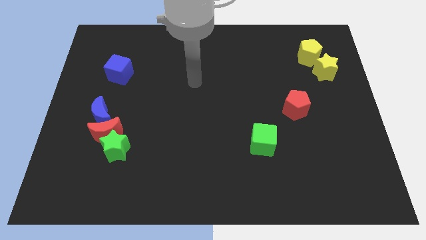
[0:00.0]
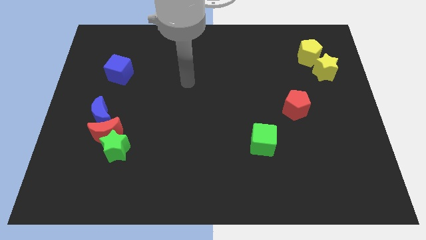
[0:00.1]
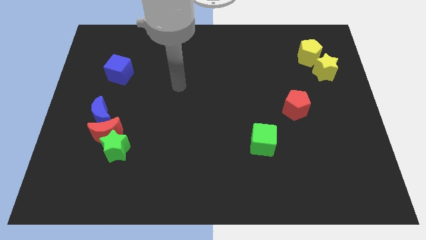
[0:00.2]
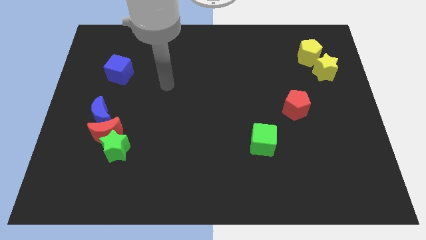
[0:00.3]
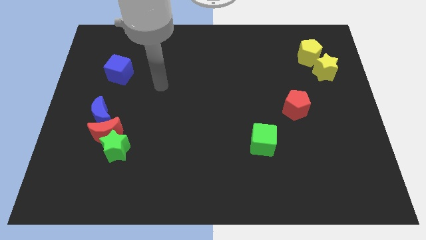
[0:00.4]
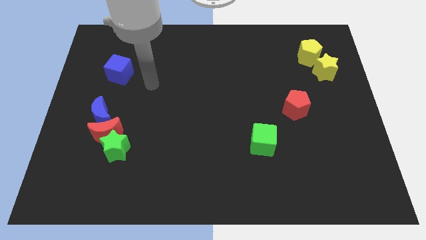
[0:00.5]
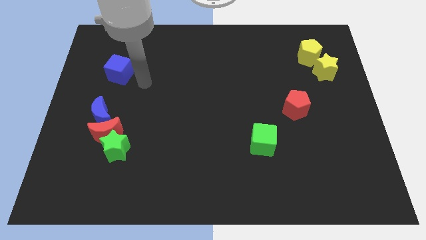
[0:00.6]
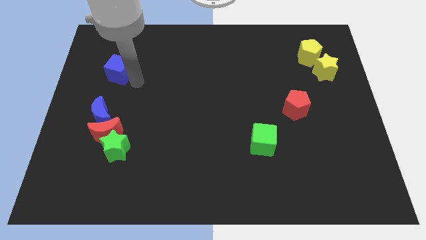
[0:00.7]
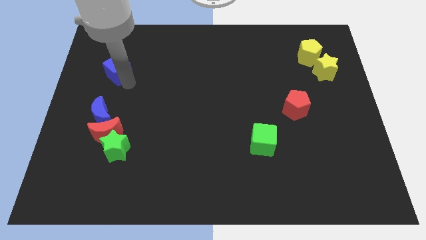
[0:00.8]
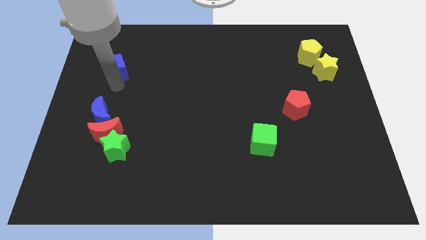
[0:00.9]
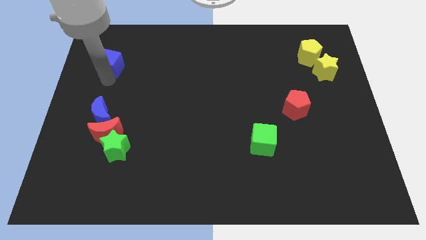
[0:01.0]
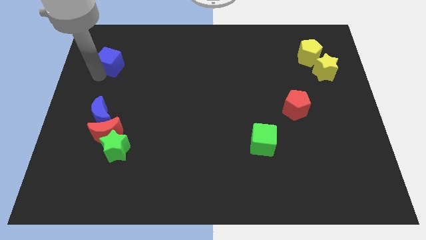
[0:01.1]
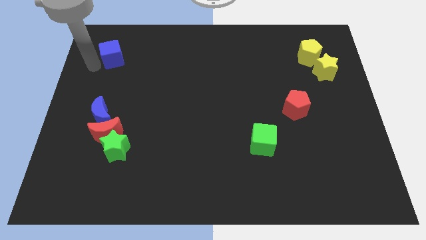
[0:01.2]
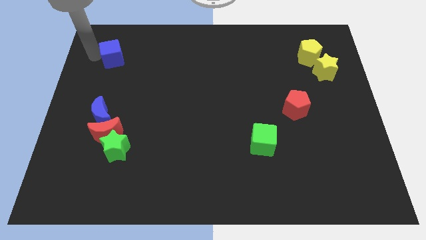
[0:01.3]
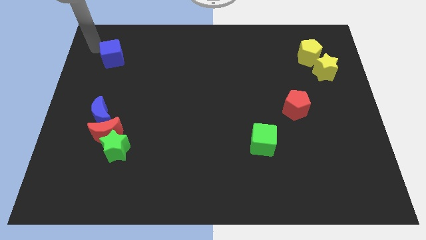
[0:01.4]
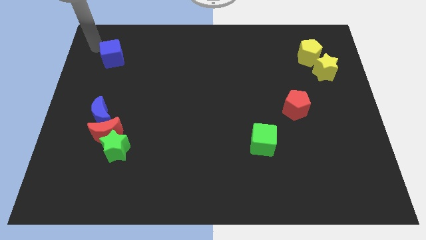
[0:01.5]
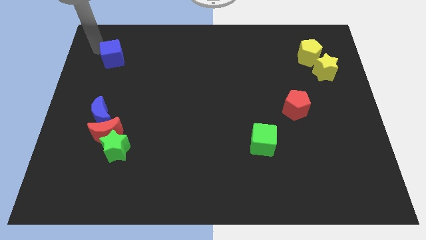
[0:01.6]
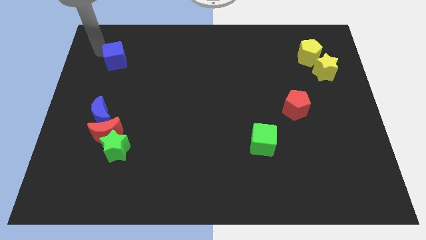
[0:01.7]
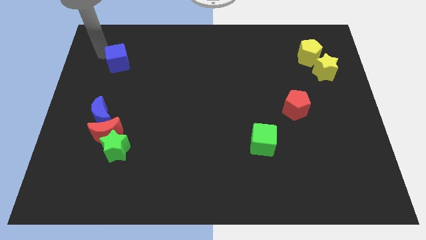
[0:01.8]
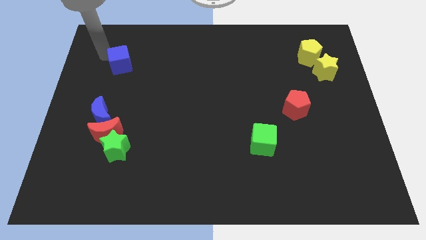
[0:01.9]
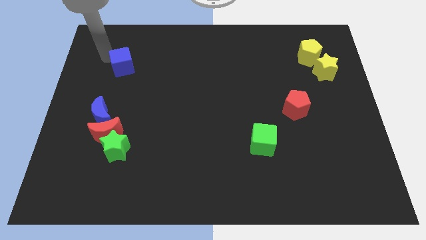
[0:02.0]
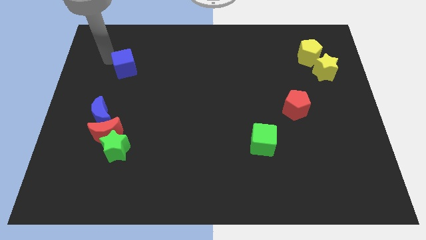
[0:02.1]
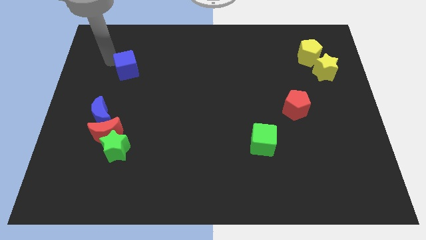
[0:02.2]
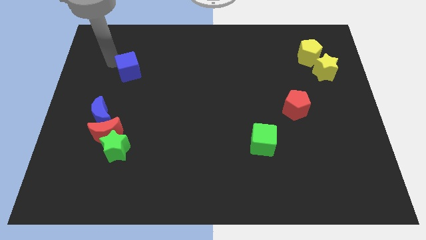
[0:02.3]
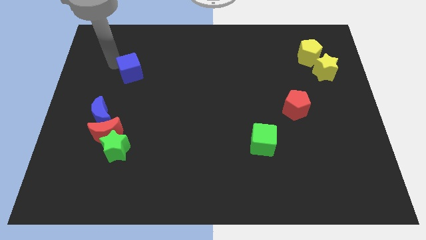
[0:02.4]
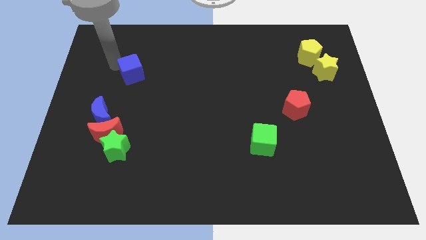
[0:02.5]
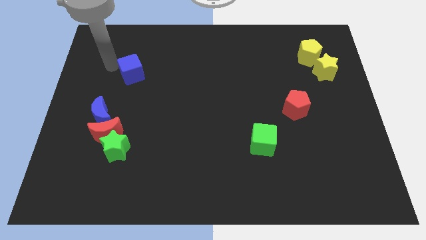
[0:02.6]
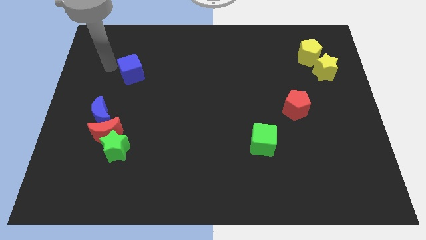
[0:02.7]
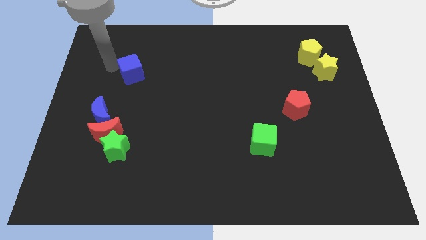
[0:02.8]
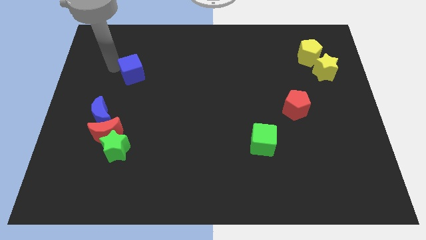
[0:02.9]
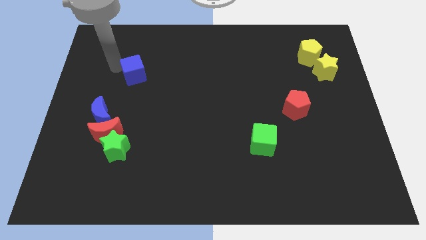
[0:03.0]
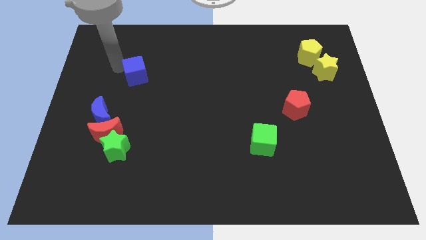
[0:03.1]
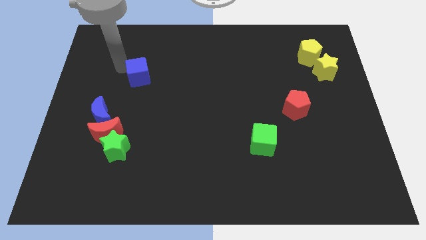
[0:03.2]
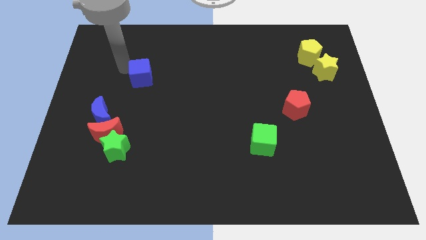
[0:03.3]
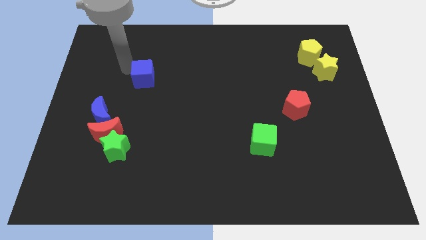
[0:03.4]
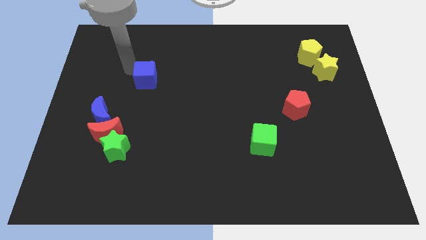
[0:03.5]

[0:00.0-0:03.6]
push the blue cube somewhat right

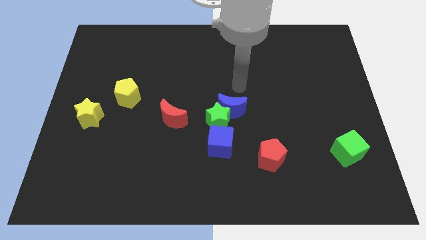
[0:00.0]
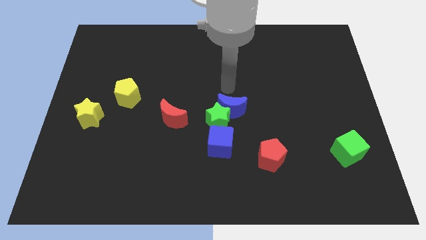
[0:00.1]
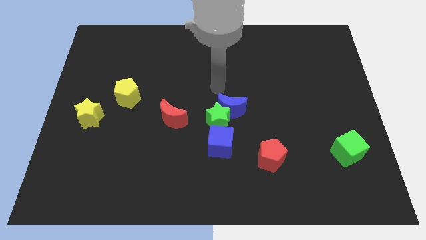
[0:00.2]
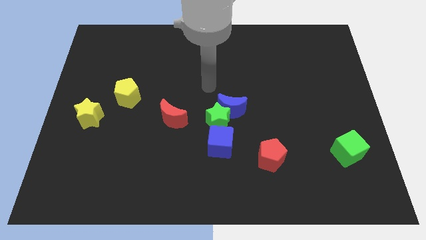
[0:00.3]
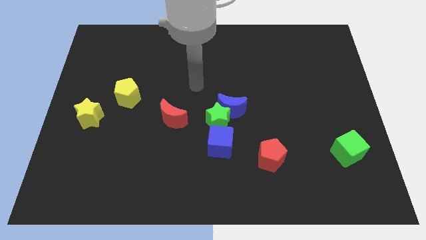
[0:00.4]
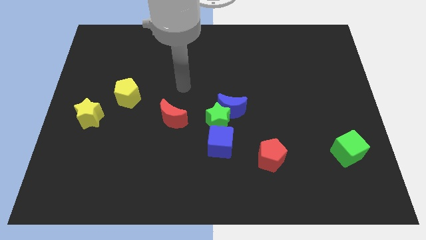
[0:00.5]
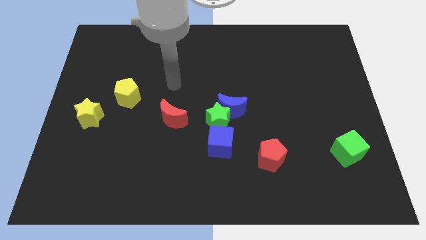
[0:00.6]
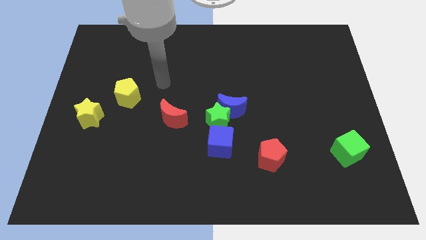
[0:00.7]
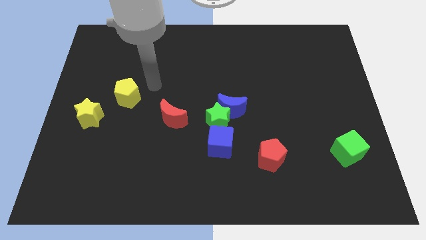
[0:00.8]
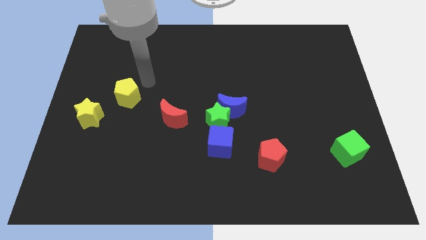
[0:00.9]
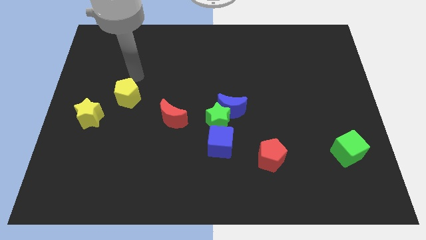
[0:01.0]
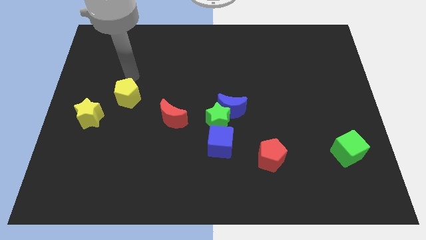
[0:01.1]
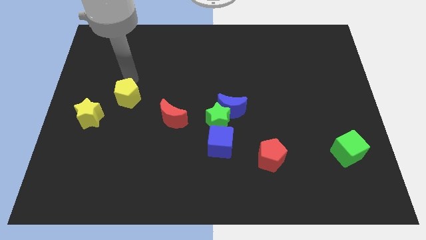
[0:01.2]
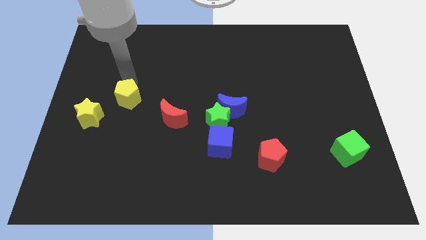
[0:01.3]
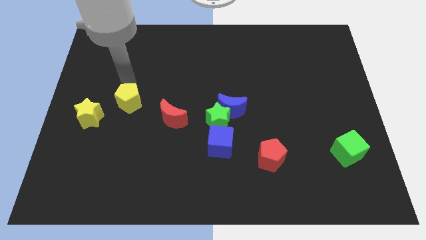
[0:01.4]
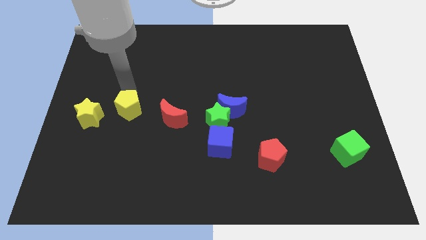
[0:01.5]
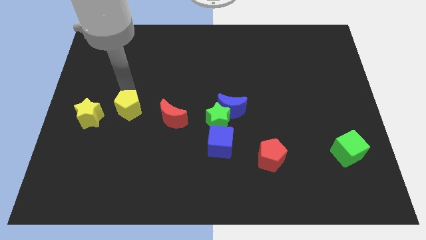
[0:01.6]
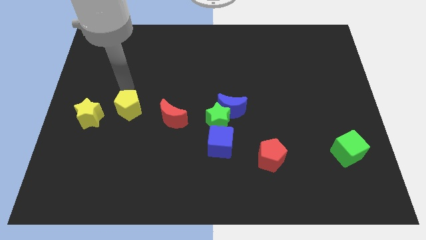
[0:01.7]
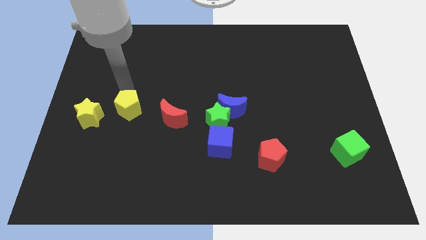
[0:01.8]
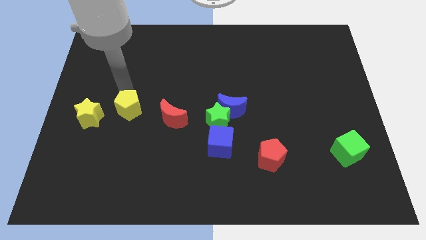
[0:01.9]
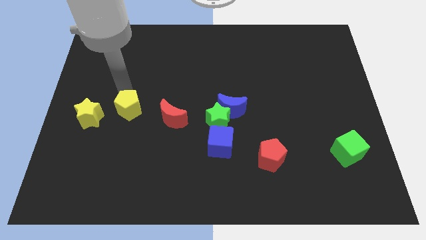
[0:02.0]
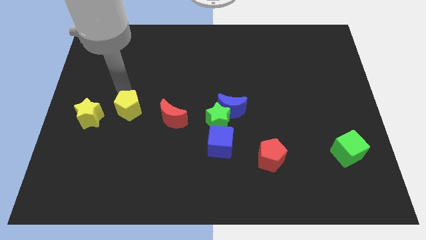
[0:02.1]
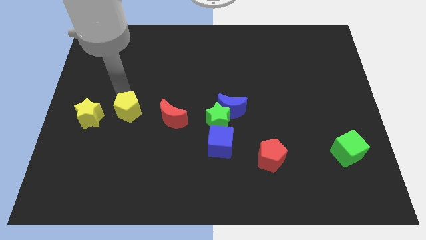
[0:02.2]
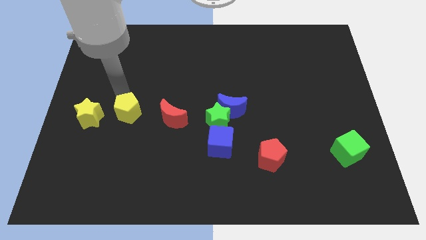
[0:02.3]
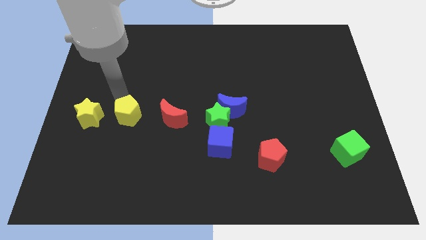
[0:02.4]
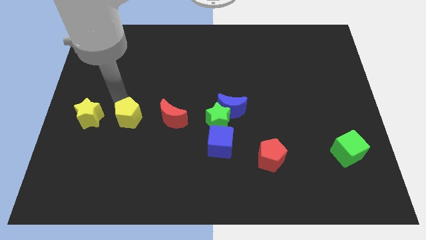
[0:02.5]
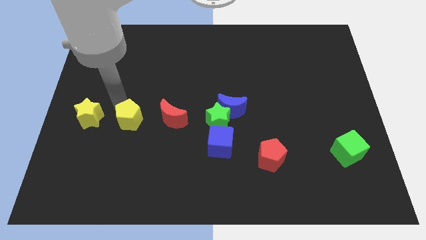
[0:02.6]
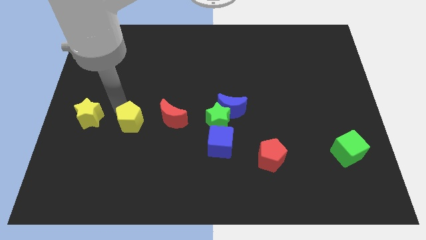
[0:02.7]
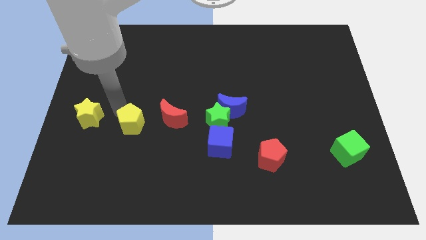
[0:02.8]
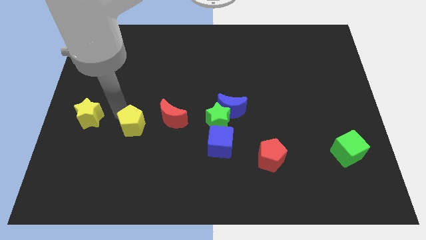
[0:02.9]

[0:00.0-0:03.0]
slide the yellow pentagon slightly down and right diagonally

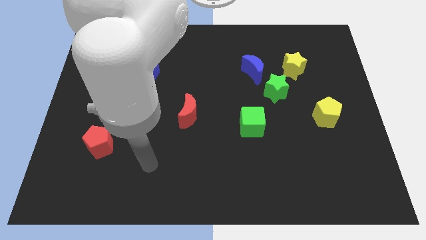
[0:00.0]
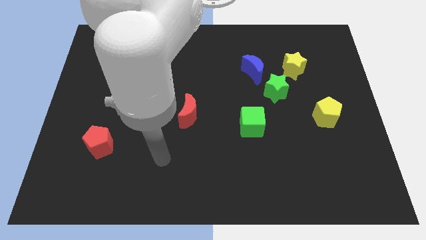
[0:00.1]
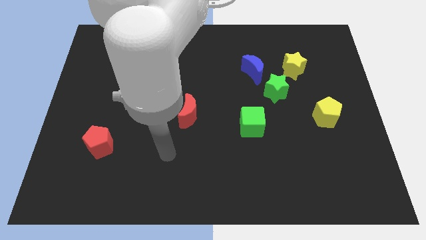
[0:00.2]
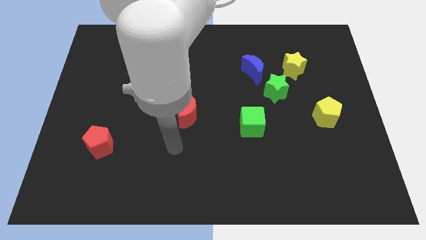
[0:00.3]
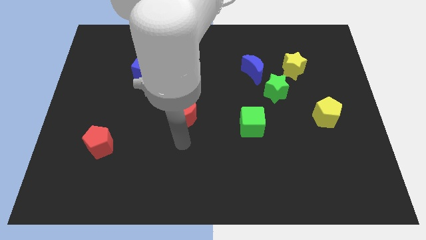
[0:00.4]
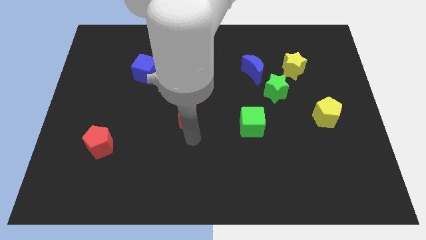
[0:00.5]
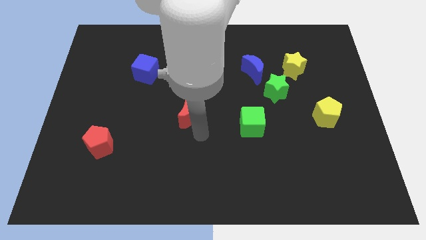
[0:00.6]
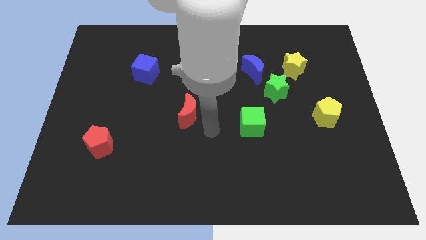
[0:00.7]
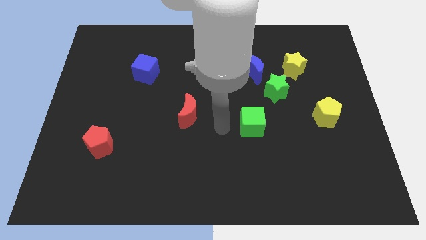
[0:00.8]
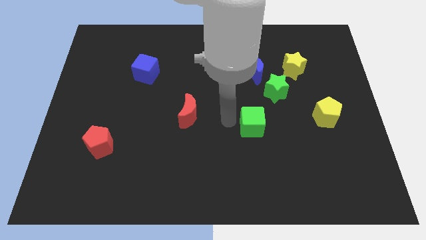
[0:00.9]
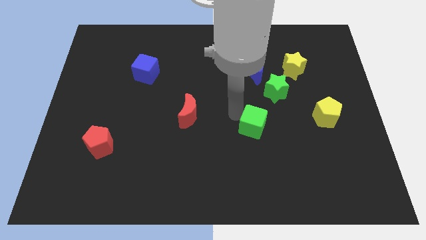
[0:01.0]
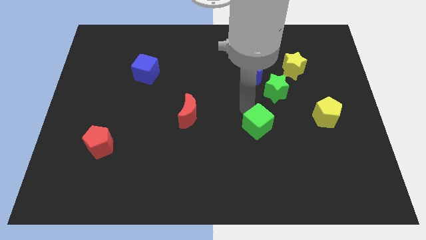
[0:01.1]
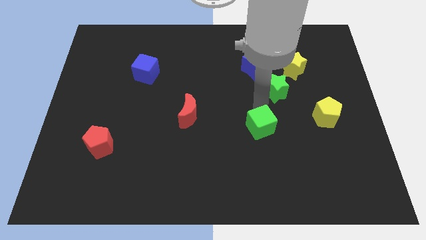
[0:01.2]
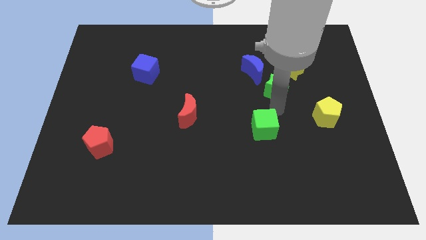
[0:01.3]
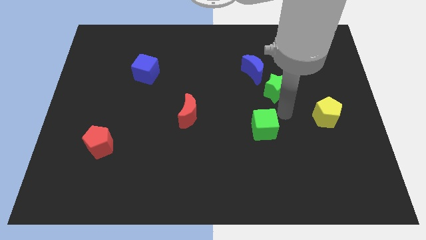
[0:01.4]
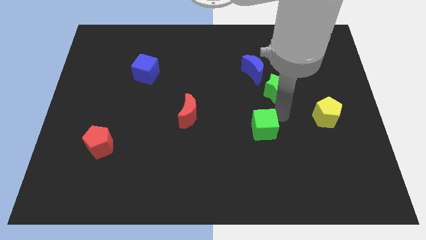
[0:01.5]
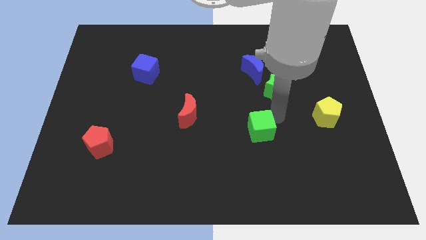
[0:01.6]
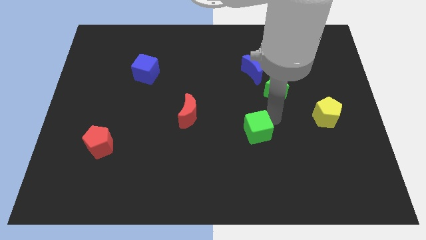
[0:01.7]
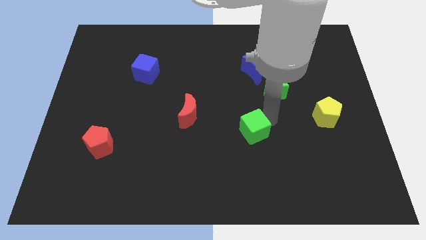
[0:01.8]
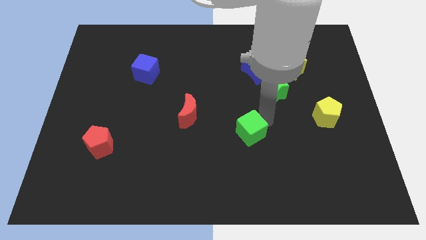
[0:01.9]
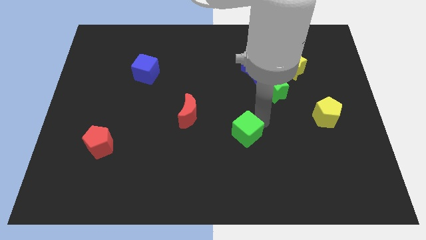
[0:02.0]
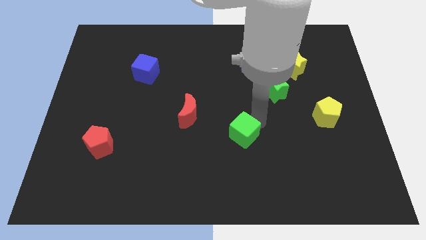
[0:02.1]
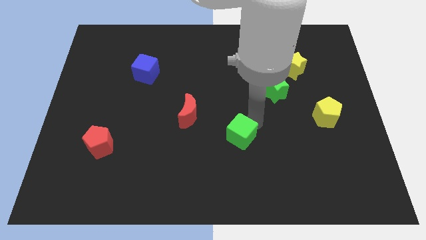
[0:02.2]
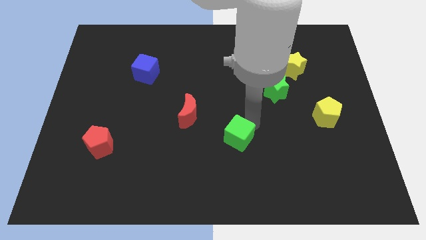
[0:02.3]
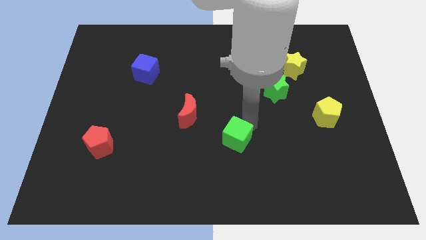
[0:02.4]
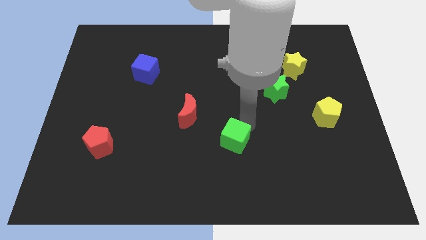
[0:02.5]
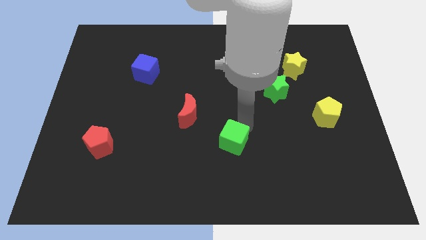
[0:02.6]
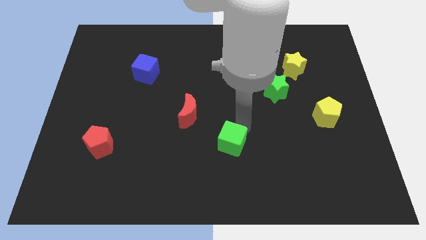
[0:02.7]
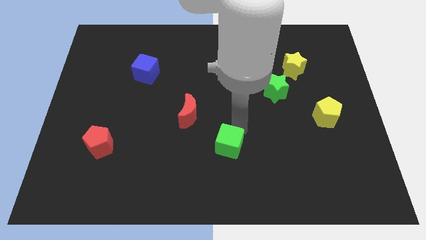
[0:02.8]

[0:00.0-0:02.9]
push the green cube somewhat down and to the left diagonally
